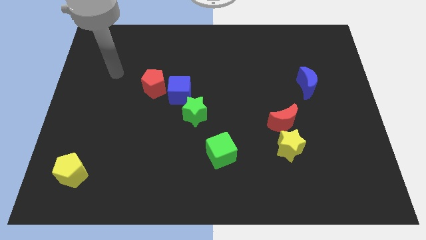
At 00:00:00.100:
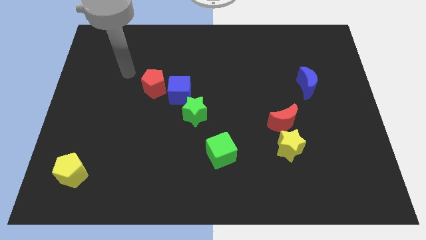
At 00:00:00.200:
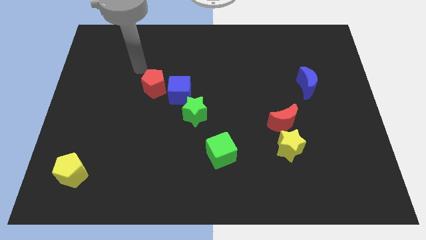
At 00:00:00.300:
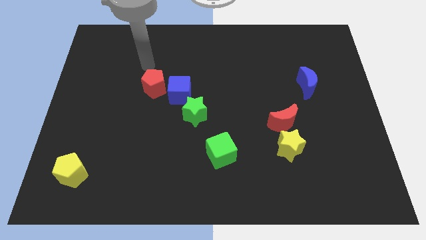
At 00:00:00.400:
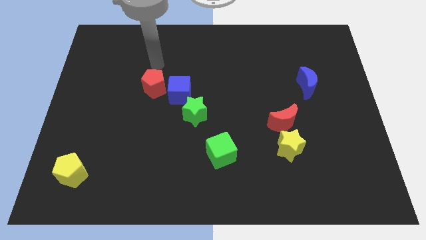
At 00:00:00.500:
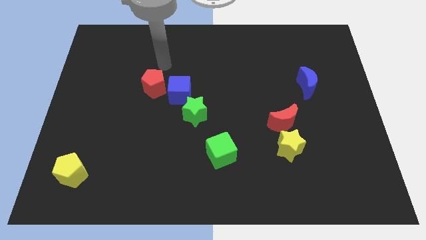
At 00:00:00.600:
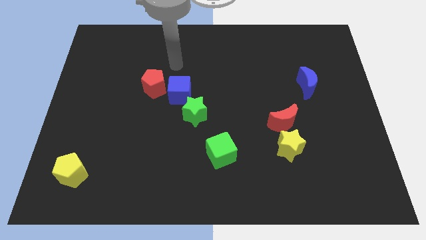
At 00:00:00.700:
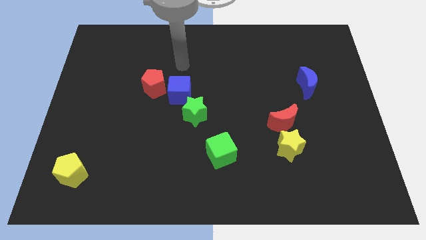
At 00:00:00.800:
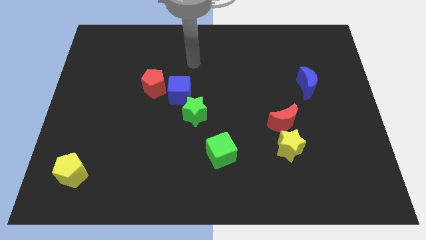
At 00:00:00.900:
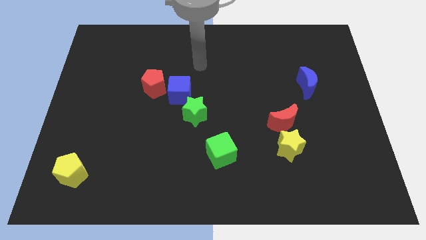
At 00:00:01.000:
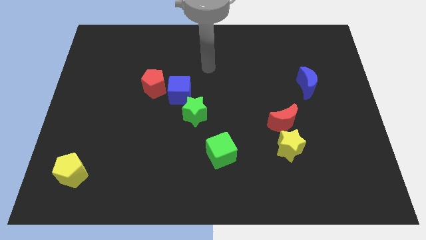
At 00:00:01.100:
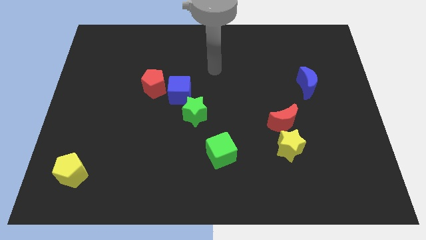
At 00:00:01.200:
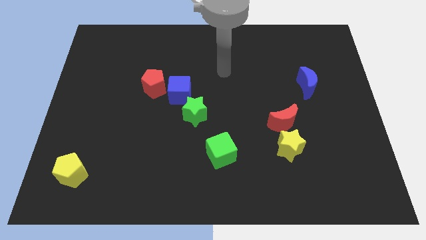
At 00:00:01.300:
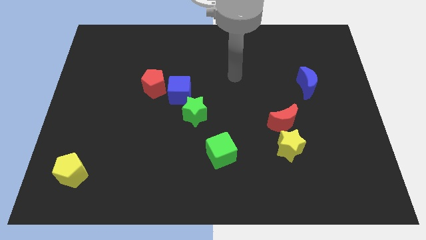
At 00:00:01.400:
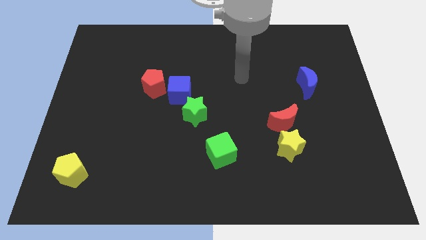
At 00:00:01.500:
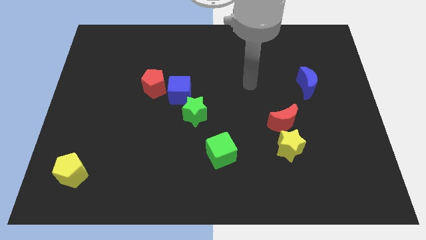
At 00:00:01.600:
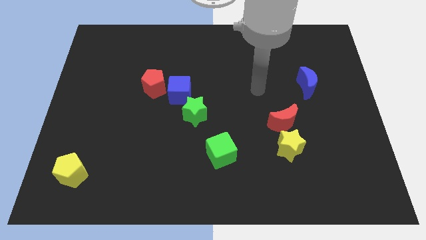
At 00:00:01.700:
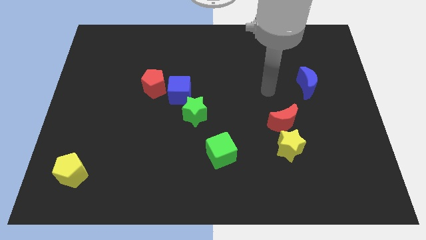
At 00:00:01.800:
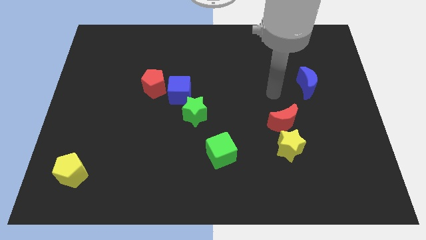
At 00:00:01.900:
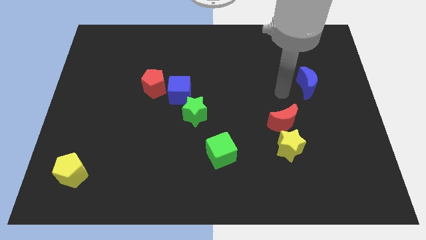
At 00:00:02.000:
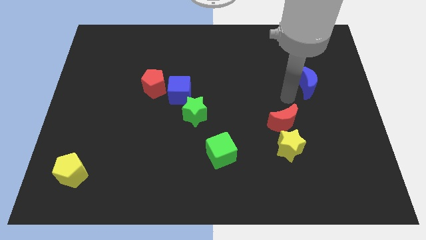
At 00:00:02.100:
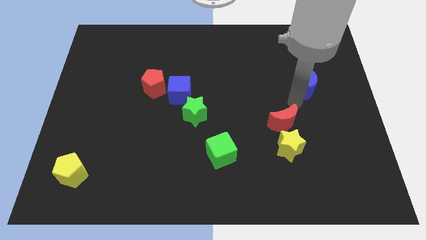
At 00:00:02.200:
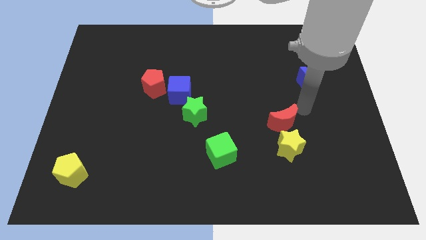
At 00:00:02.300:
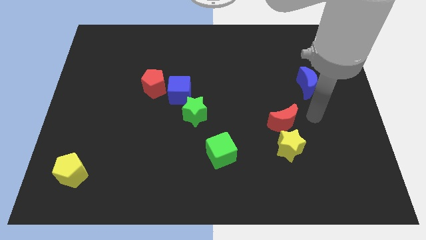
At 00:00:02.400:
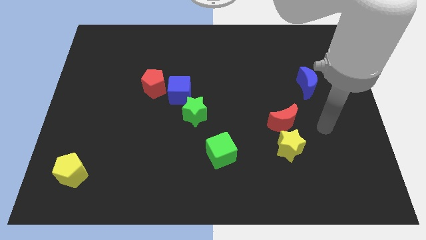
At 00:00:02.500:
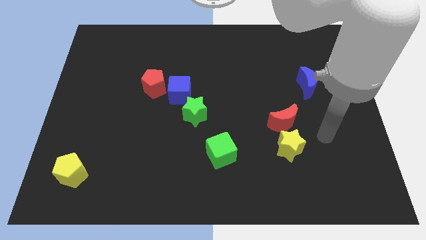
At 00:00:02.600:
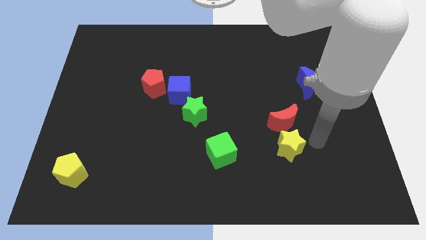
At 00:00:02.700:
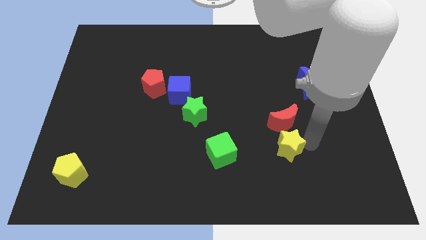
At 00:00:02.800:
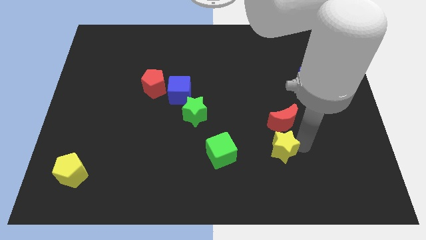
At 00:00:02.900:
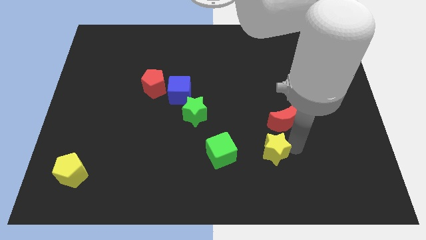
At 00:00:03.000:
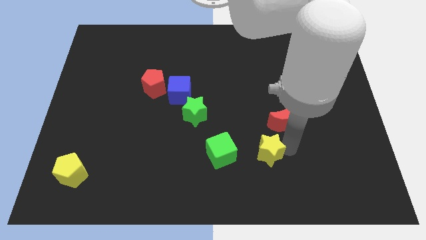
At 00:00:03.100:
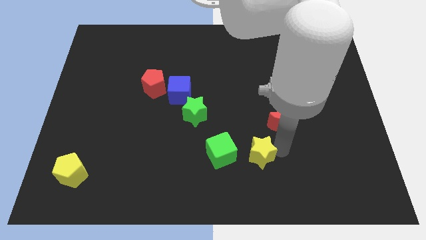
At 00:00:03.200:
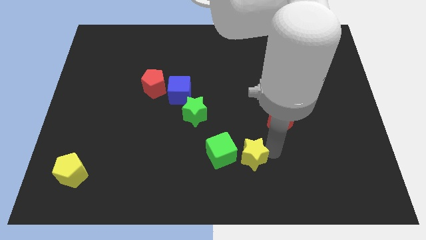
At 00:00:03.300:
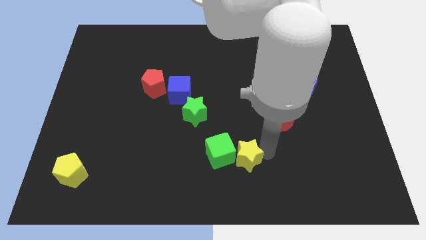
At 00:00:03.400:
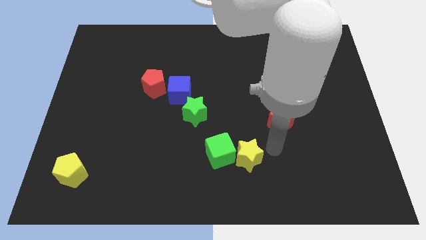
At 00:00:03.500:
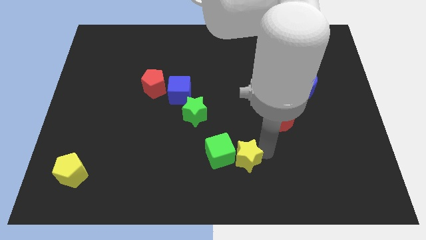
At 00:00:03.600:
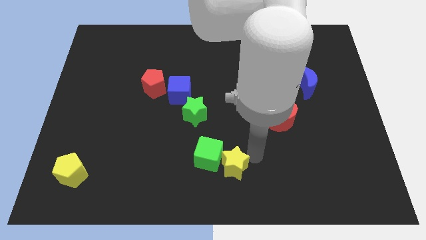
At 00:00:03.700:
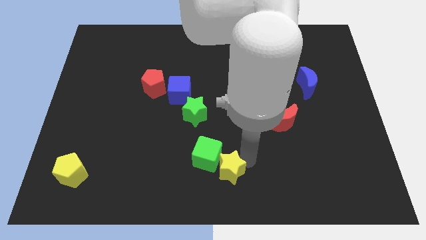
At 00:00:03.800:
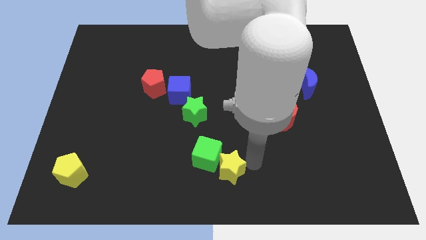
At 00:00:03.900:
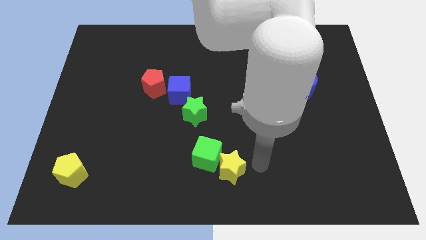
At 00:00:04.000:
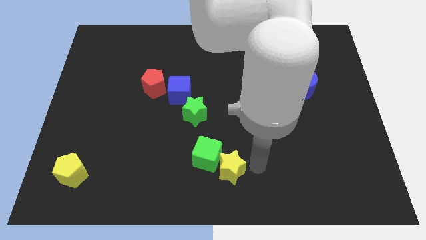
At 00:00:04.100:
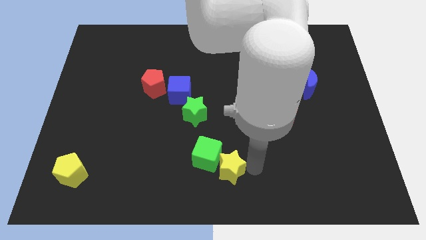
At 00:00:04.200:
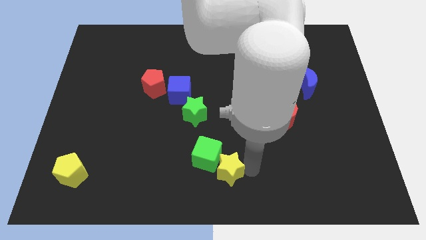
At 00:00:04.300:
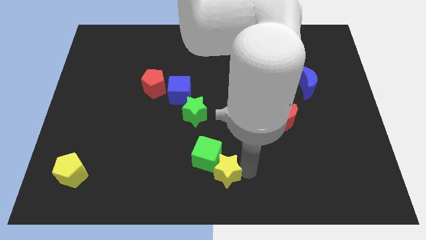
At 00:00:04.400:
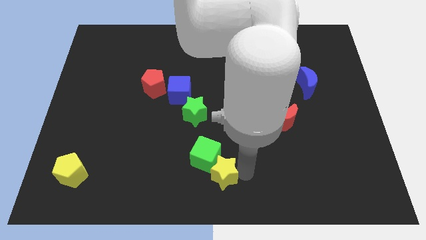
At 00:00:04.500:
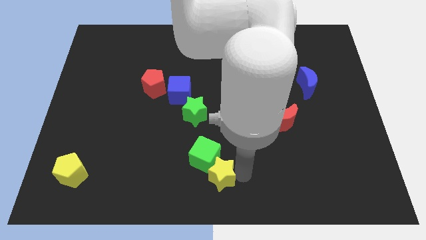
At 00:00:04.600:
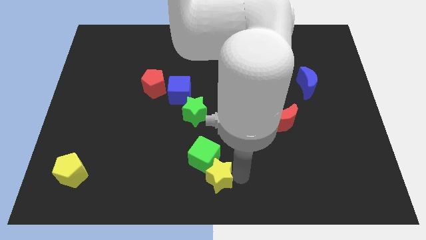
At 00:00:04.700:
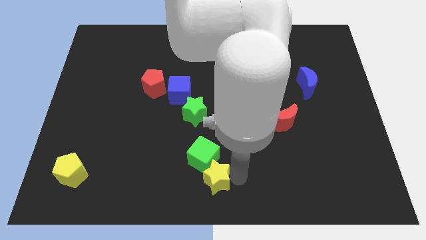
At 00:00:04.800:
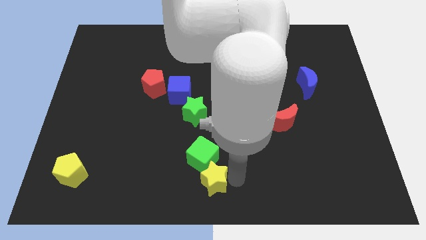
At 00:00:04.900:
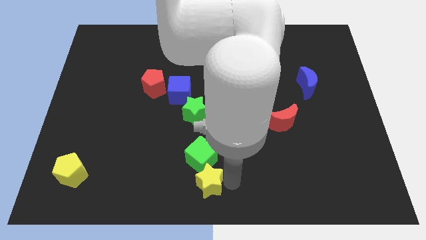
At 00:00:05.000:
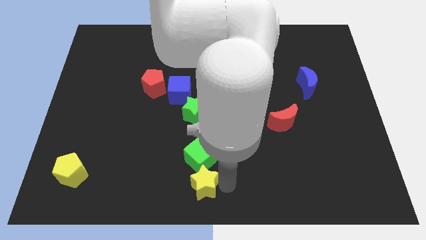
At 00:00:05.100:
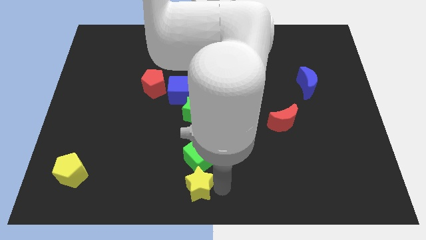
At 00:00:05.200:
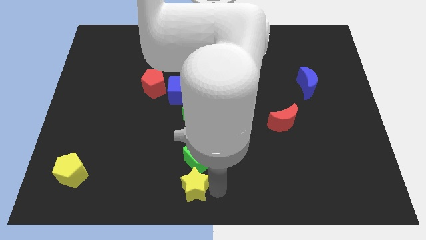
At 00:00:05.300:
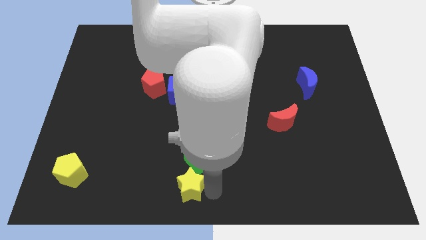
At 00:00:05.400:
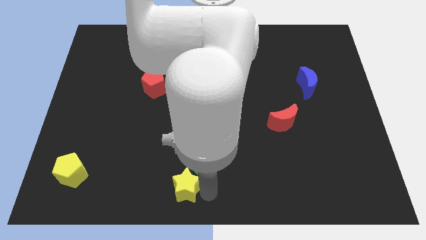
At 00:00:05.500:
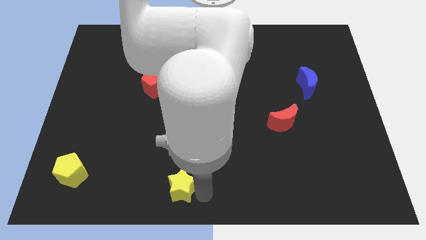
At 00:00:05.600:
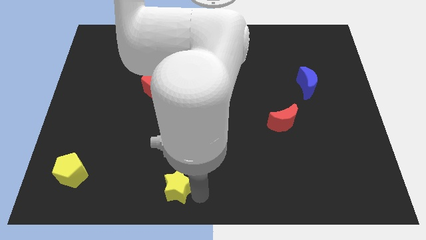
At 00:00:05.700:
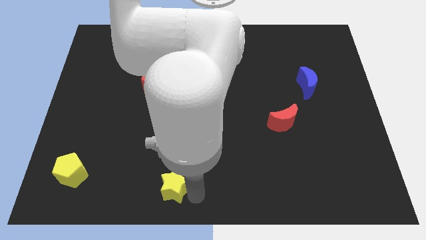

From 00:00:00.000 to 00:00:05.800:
slide the yellow star to the left

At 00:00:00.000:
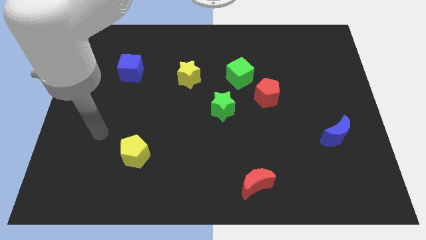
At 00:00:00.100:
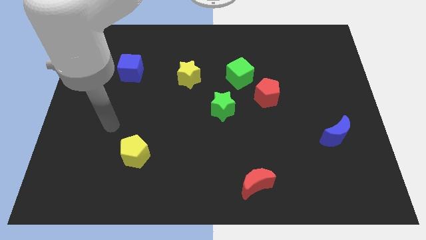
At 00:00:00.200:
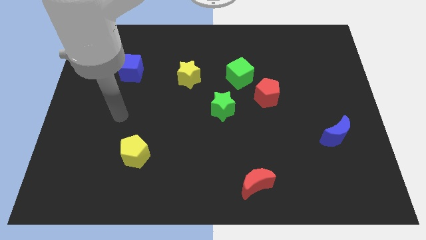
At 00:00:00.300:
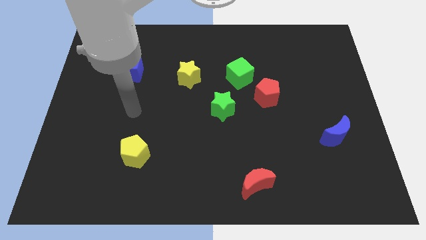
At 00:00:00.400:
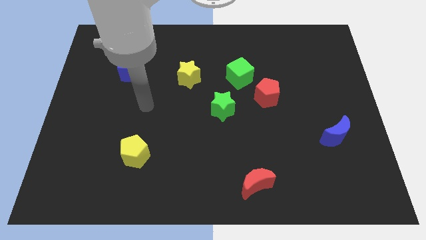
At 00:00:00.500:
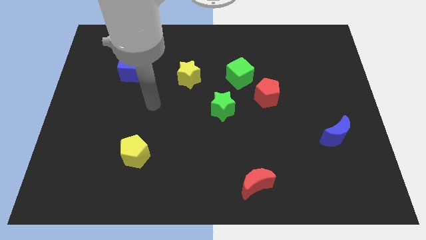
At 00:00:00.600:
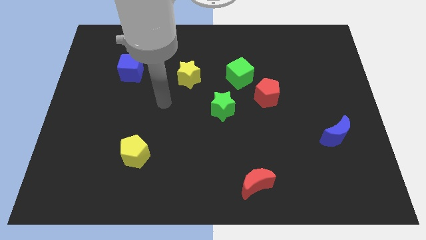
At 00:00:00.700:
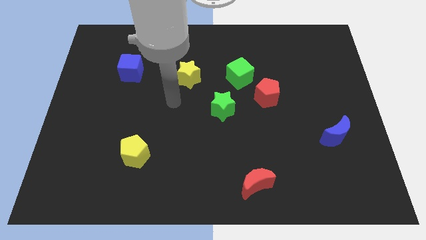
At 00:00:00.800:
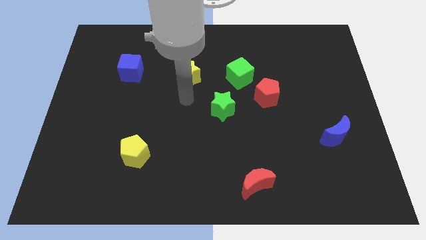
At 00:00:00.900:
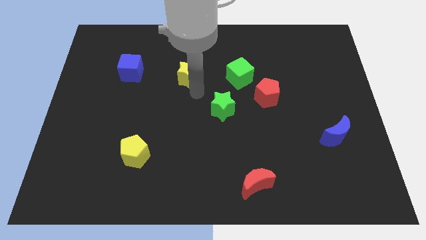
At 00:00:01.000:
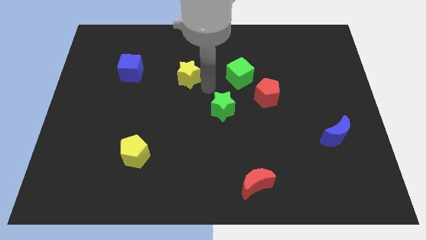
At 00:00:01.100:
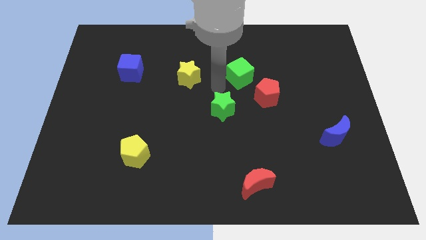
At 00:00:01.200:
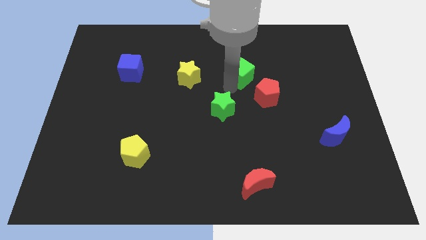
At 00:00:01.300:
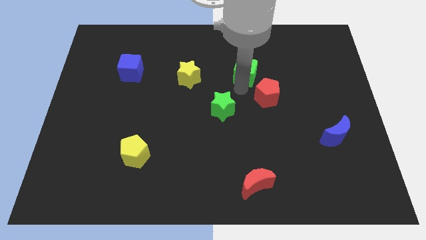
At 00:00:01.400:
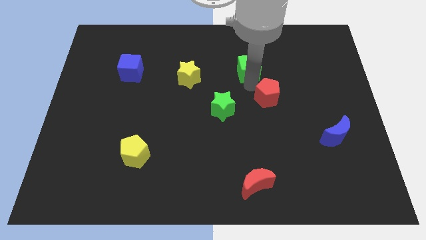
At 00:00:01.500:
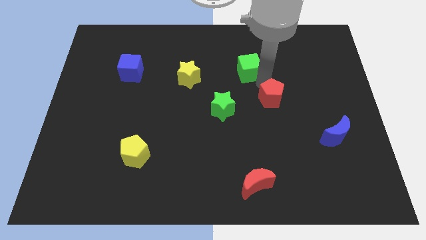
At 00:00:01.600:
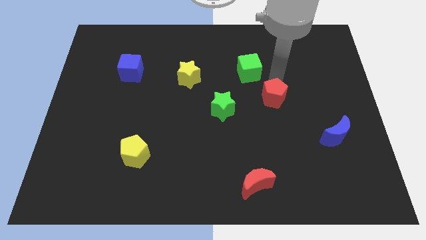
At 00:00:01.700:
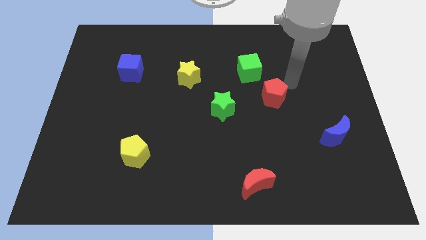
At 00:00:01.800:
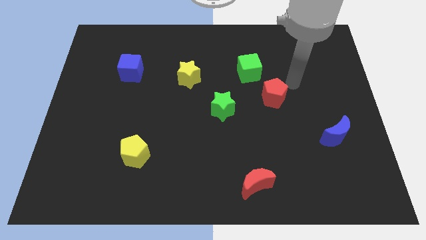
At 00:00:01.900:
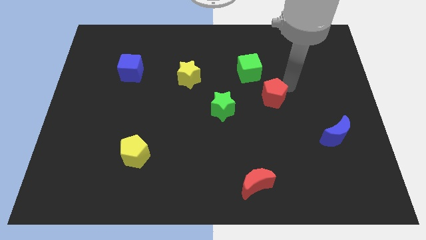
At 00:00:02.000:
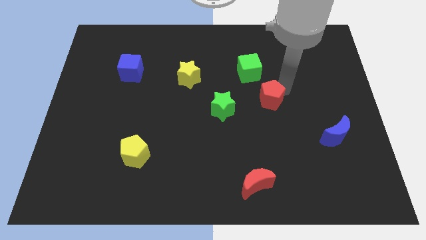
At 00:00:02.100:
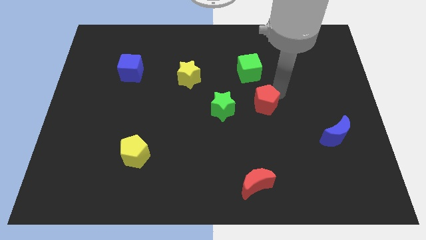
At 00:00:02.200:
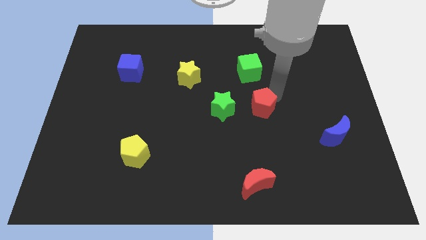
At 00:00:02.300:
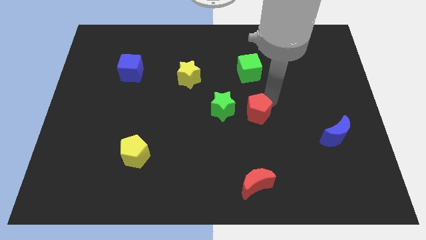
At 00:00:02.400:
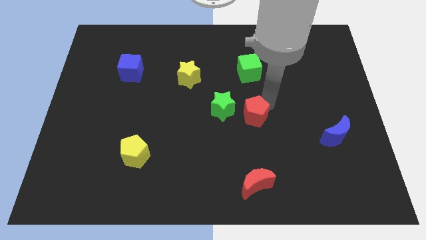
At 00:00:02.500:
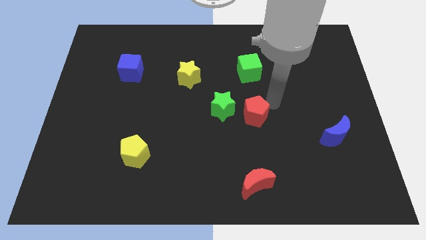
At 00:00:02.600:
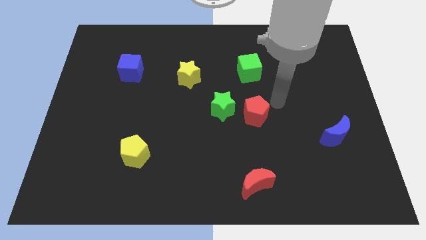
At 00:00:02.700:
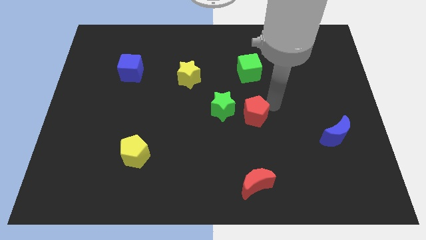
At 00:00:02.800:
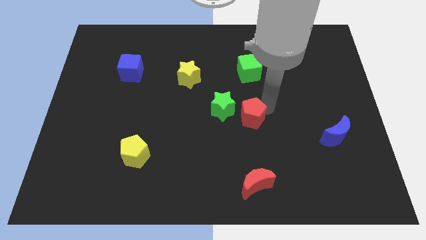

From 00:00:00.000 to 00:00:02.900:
slightly move the red pentagon down and to the left diagonally
